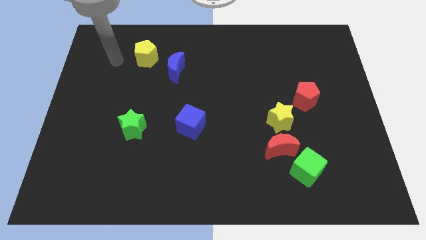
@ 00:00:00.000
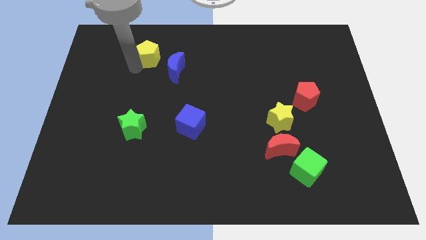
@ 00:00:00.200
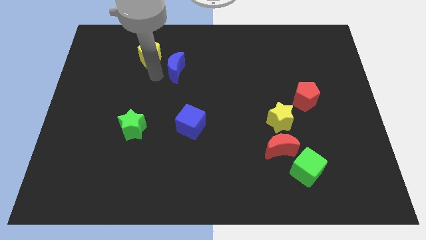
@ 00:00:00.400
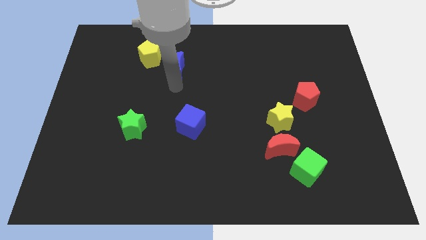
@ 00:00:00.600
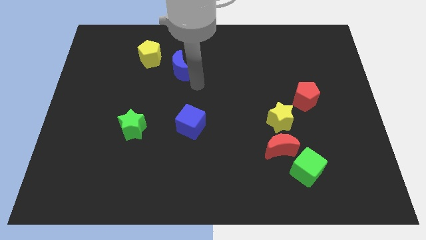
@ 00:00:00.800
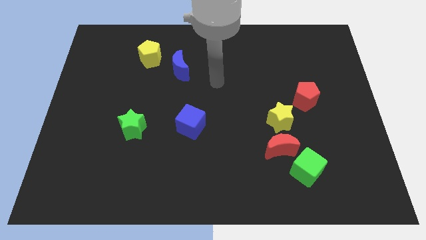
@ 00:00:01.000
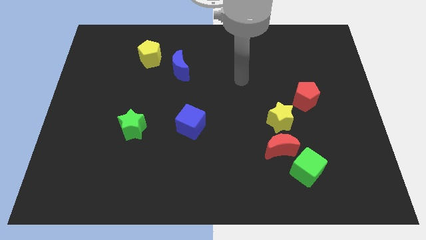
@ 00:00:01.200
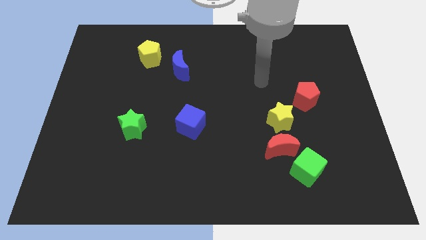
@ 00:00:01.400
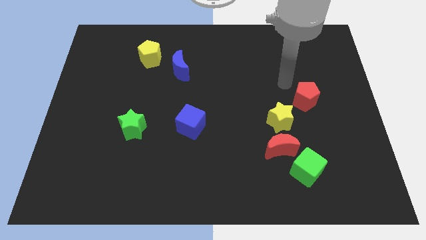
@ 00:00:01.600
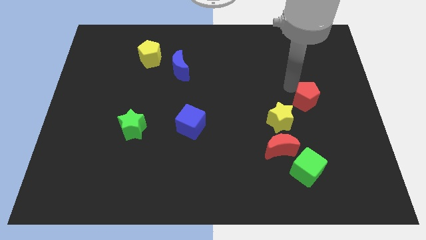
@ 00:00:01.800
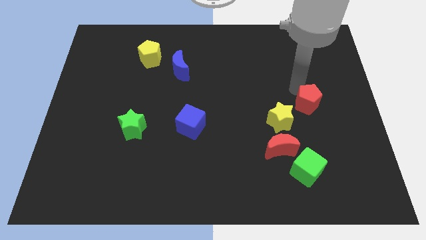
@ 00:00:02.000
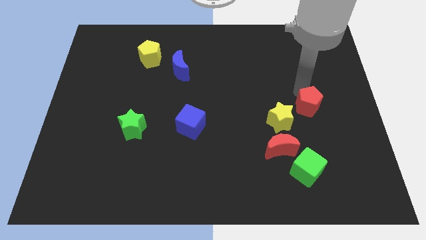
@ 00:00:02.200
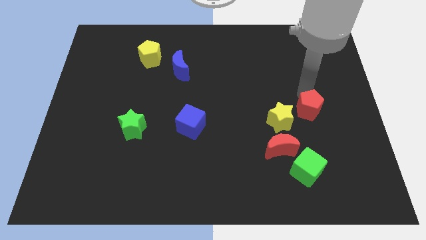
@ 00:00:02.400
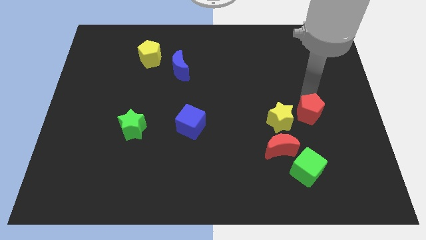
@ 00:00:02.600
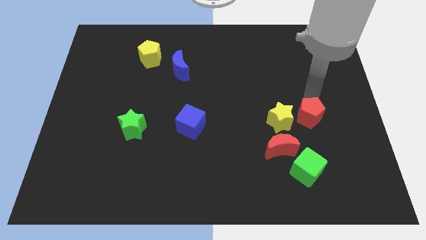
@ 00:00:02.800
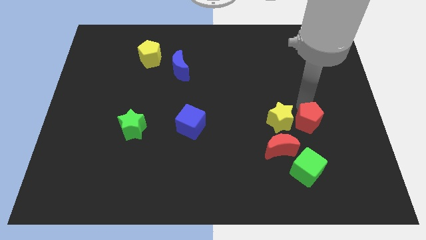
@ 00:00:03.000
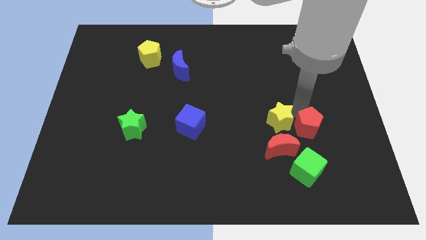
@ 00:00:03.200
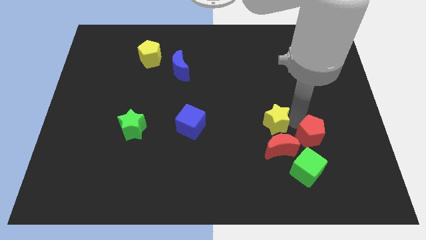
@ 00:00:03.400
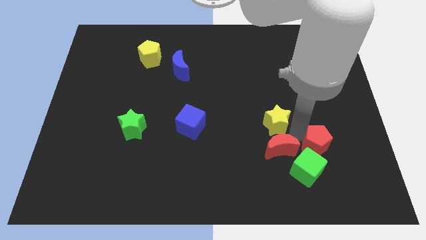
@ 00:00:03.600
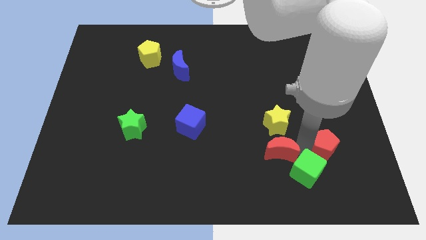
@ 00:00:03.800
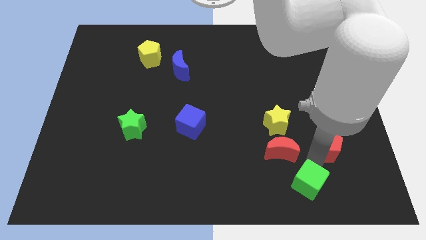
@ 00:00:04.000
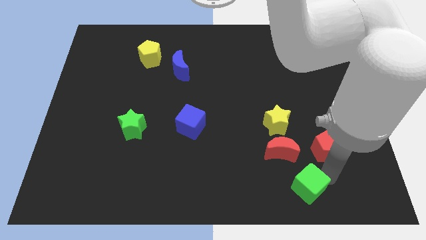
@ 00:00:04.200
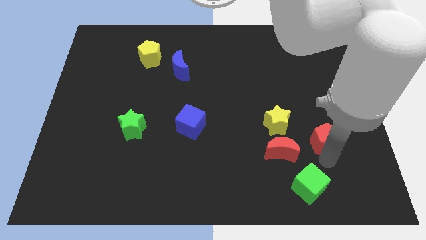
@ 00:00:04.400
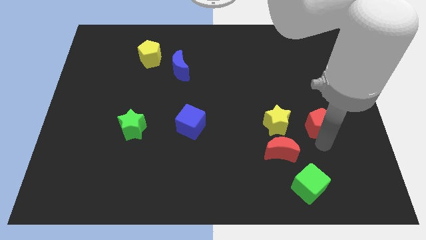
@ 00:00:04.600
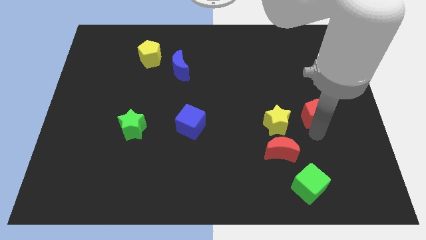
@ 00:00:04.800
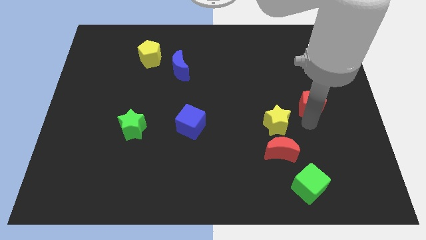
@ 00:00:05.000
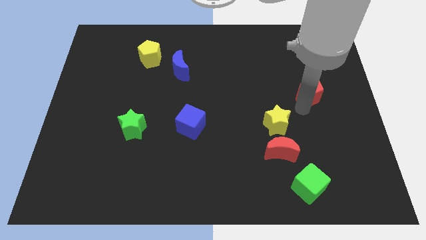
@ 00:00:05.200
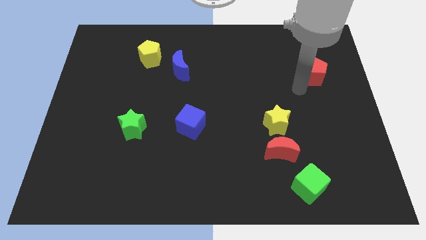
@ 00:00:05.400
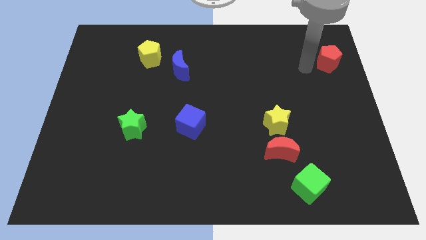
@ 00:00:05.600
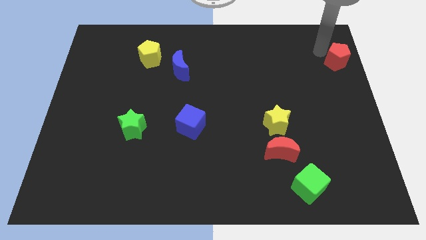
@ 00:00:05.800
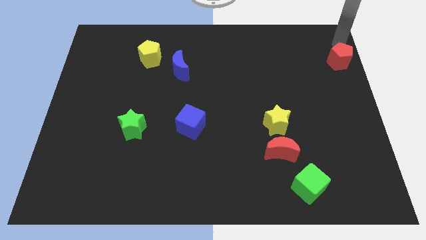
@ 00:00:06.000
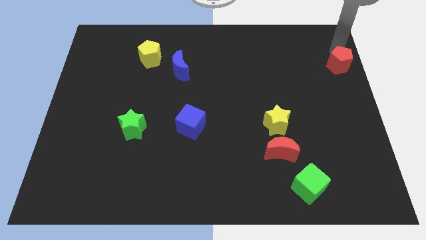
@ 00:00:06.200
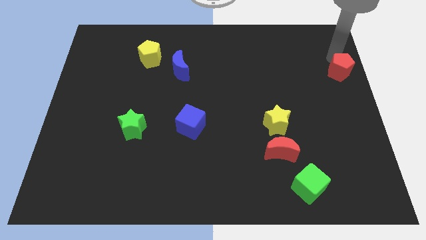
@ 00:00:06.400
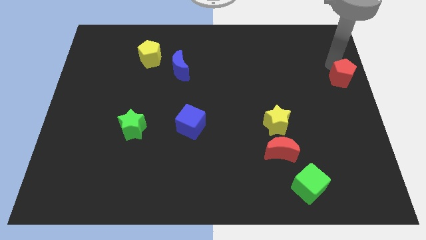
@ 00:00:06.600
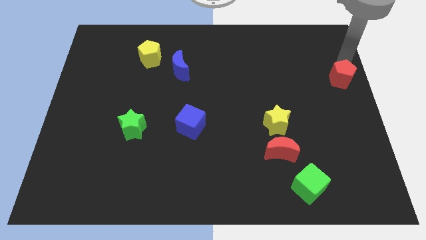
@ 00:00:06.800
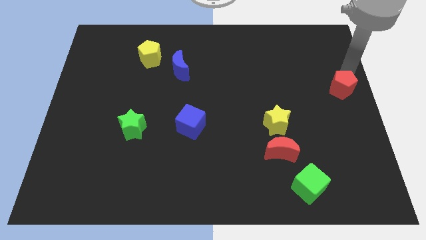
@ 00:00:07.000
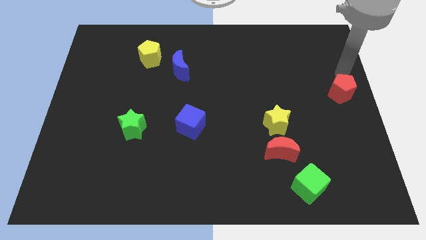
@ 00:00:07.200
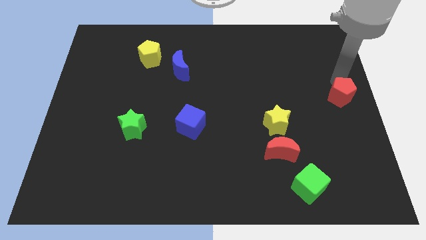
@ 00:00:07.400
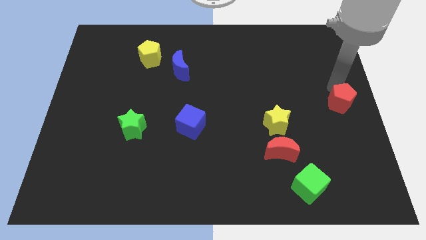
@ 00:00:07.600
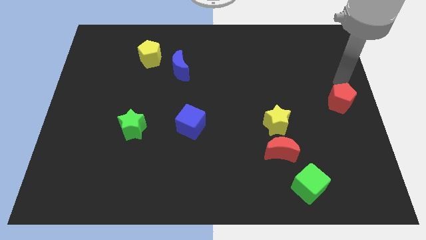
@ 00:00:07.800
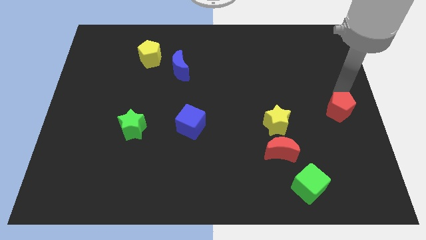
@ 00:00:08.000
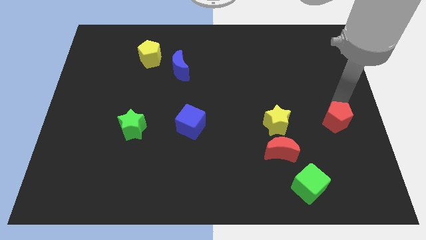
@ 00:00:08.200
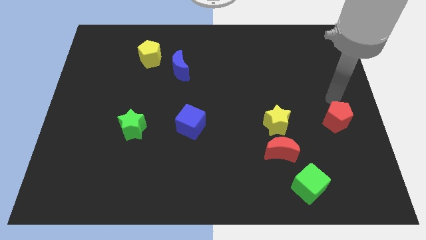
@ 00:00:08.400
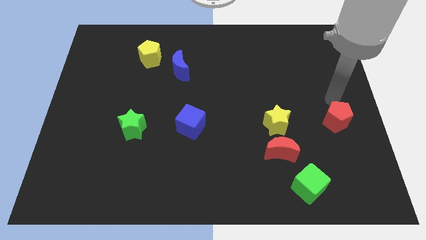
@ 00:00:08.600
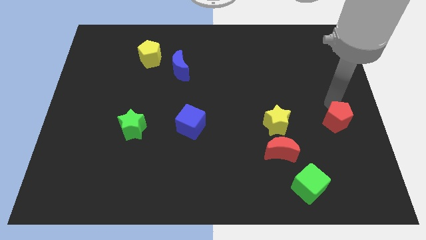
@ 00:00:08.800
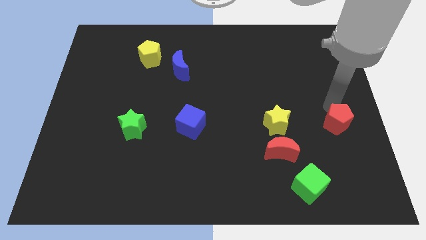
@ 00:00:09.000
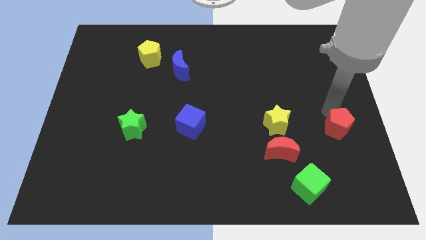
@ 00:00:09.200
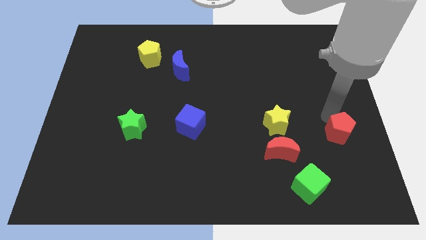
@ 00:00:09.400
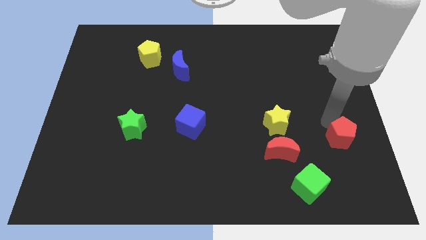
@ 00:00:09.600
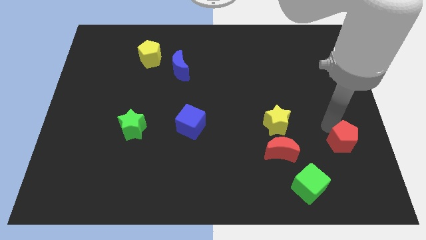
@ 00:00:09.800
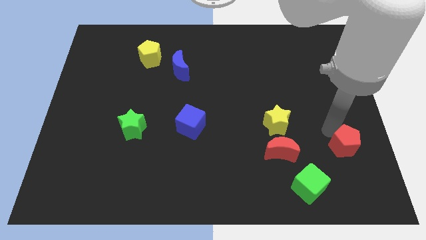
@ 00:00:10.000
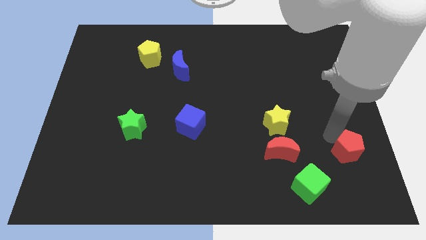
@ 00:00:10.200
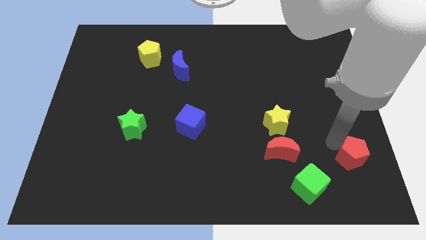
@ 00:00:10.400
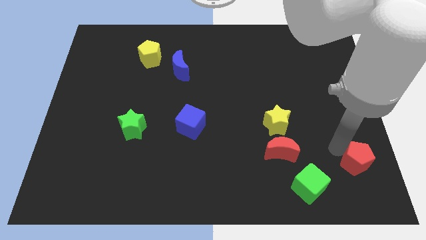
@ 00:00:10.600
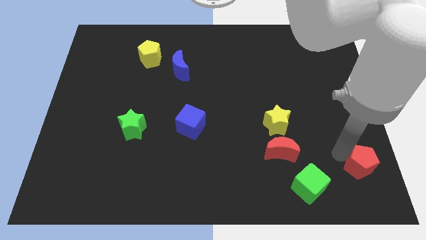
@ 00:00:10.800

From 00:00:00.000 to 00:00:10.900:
move the red pentagon to the bottom right
